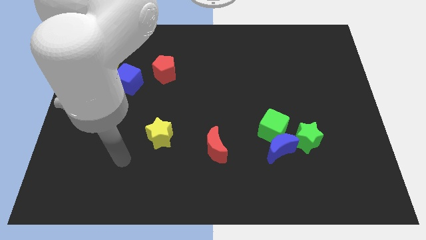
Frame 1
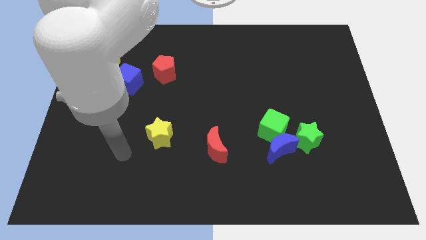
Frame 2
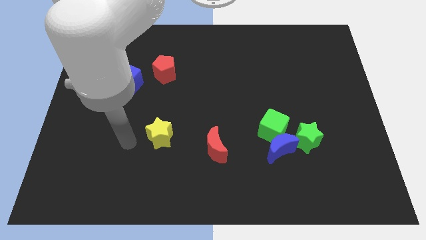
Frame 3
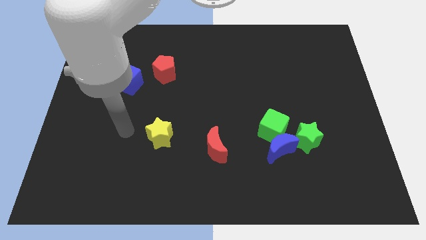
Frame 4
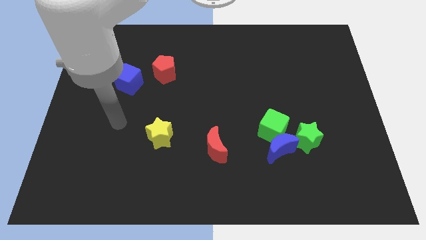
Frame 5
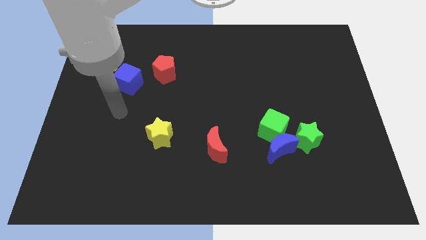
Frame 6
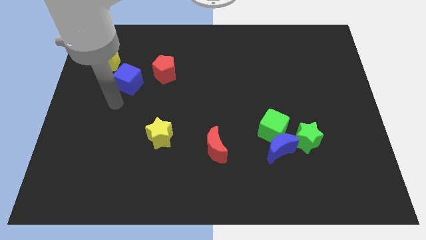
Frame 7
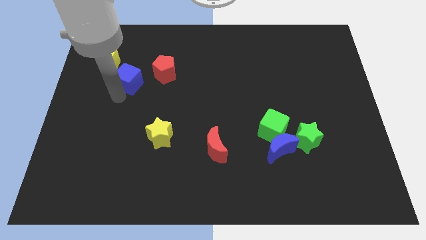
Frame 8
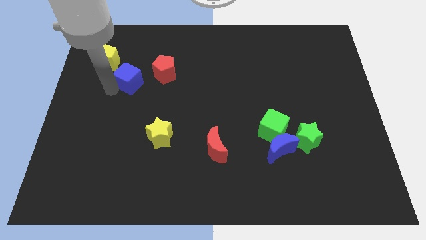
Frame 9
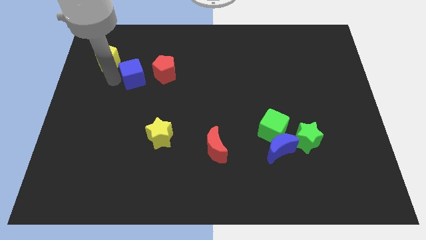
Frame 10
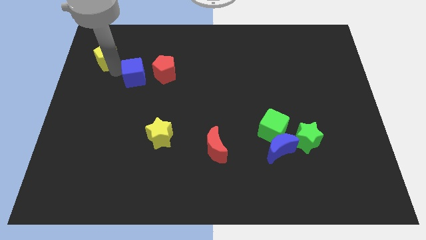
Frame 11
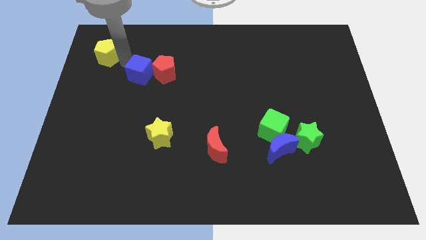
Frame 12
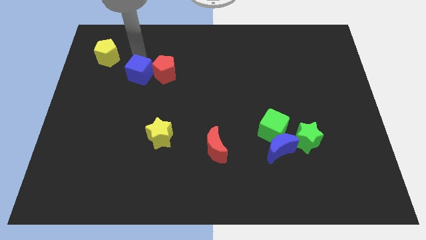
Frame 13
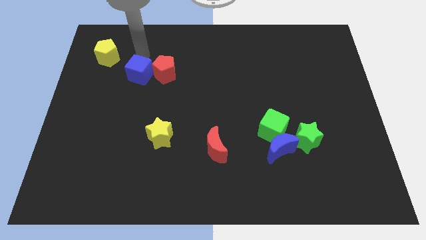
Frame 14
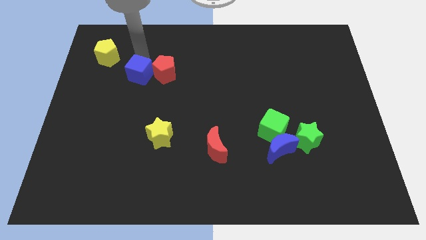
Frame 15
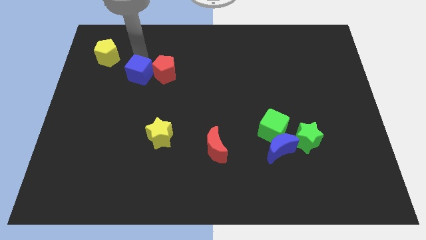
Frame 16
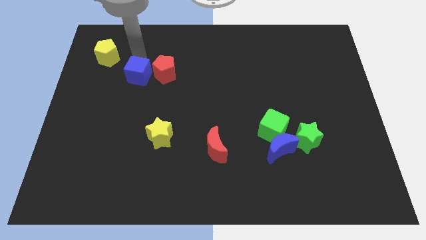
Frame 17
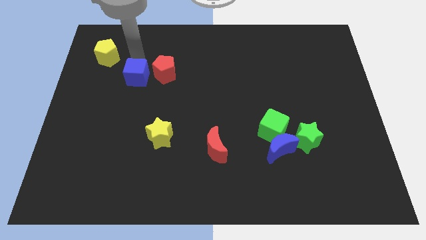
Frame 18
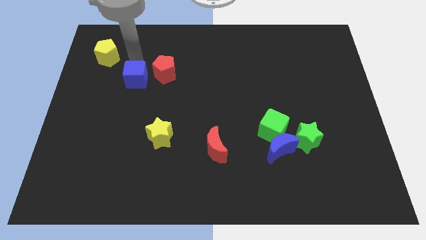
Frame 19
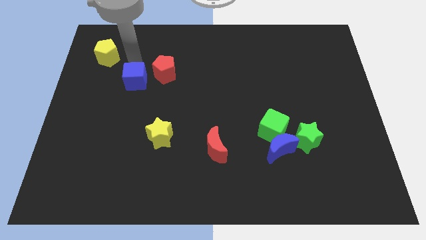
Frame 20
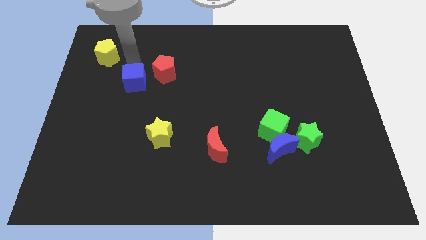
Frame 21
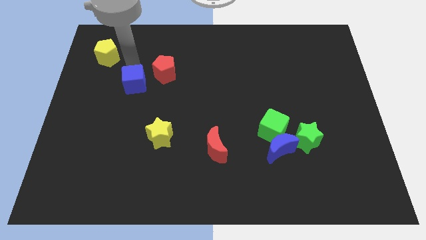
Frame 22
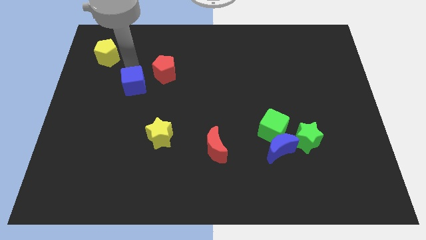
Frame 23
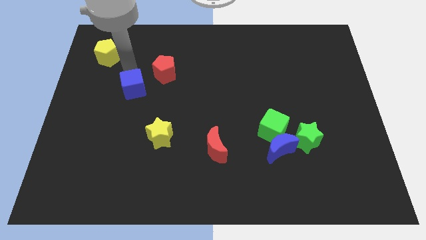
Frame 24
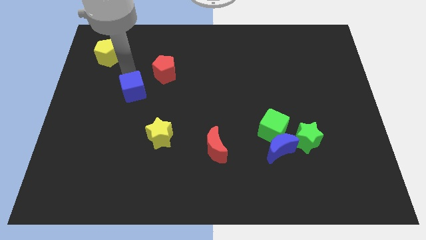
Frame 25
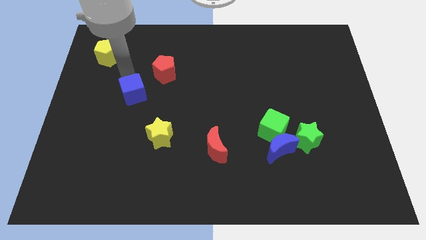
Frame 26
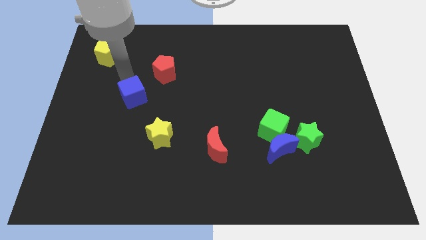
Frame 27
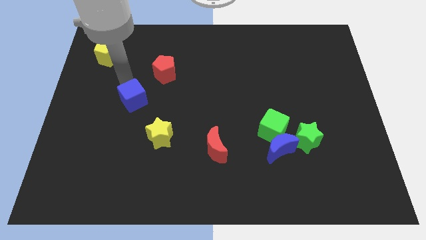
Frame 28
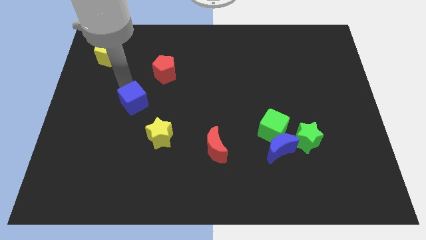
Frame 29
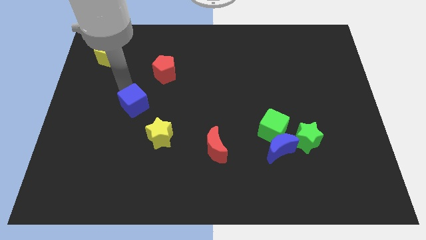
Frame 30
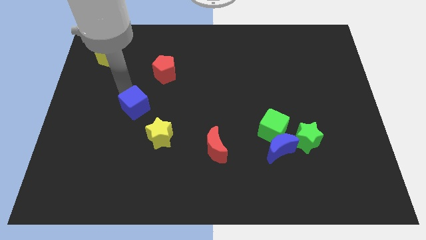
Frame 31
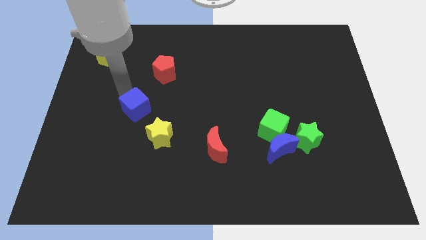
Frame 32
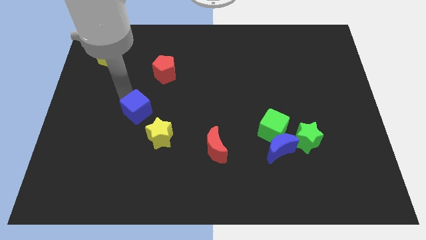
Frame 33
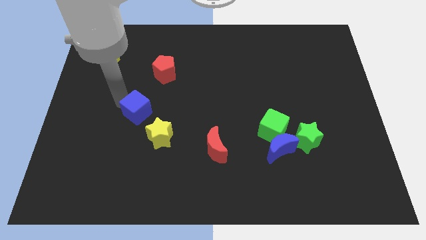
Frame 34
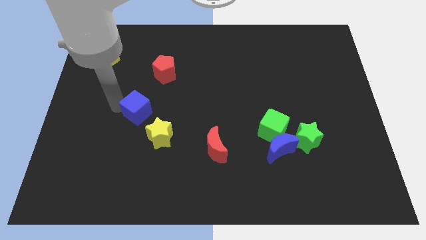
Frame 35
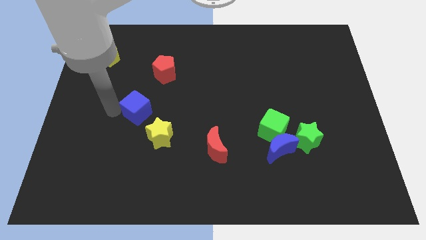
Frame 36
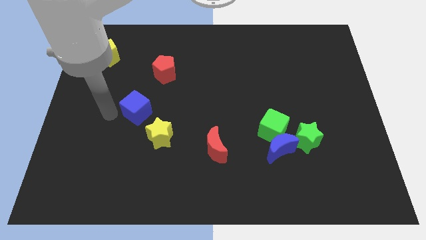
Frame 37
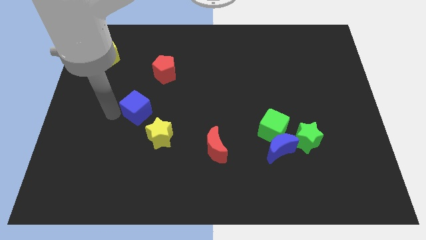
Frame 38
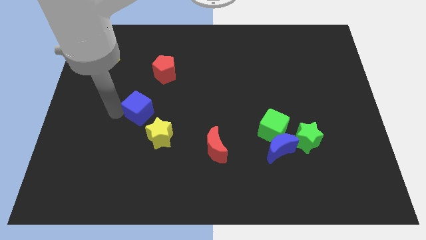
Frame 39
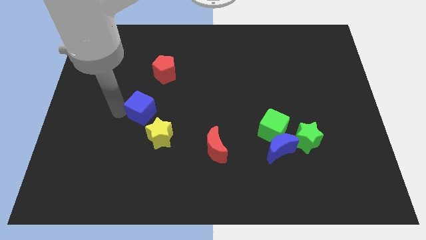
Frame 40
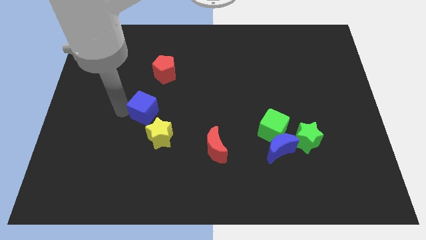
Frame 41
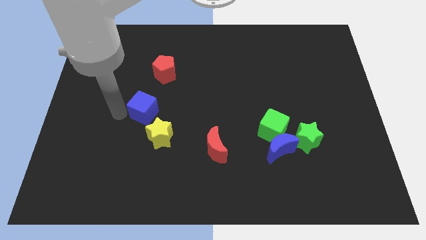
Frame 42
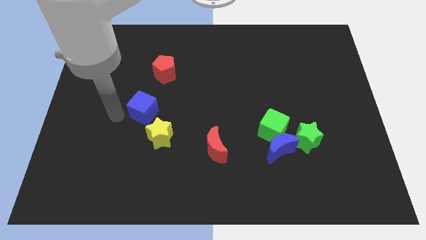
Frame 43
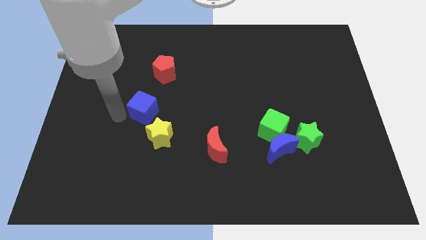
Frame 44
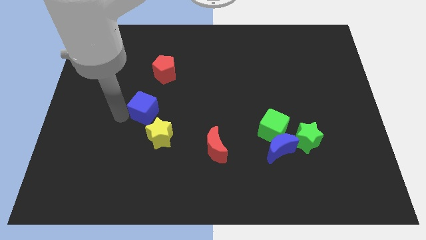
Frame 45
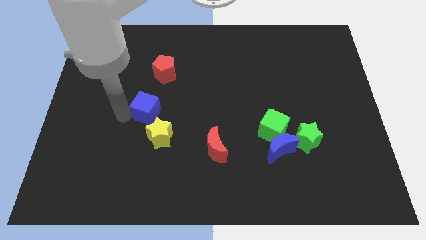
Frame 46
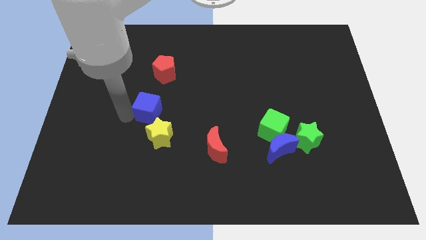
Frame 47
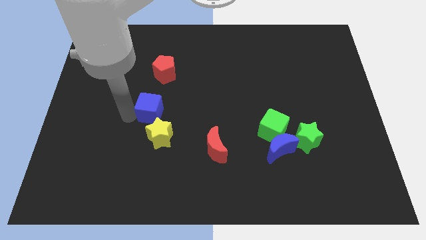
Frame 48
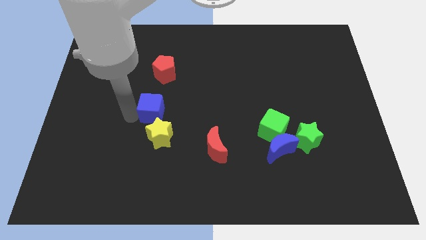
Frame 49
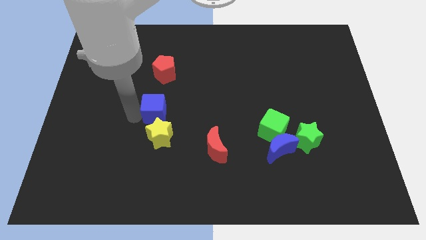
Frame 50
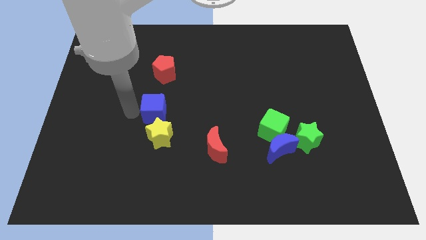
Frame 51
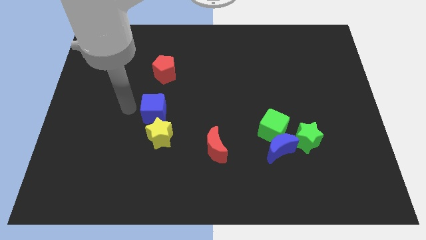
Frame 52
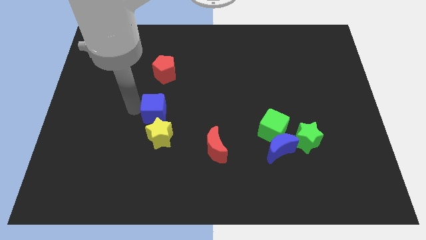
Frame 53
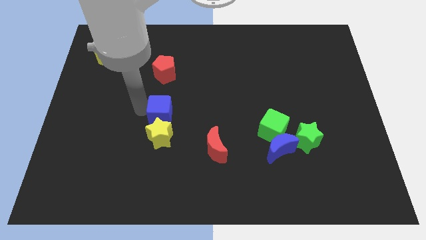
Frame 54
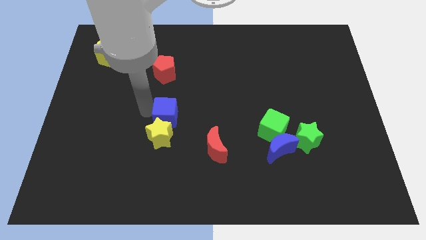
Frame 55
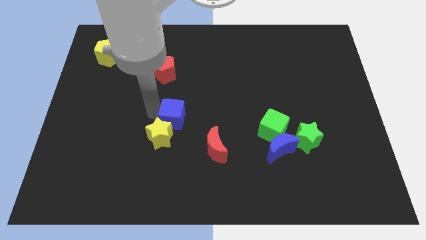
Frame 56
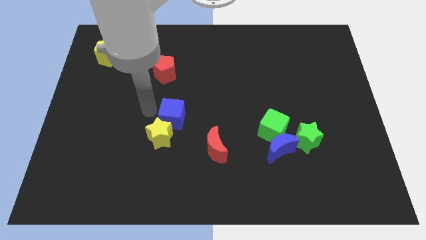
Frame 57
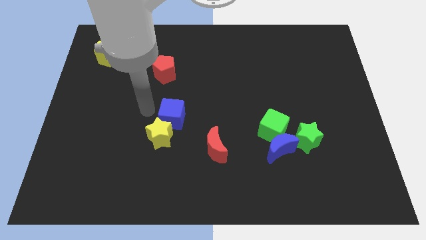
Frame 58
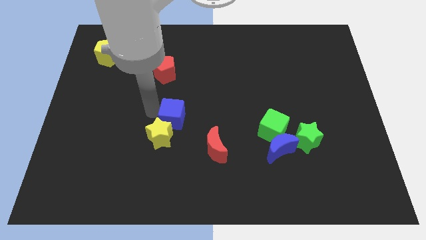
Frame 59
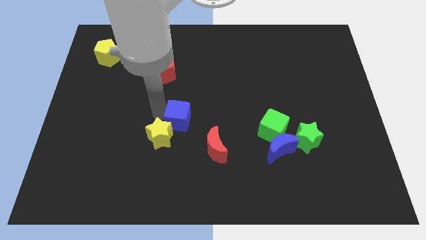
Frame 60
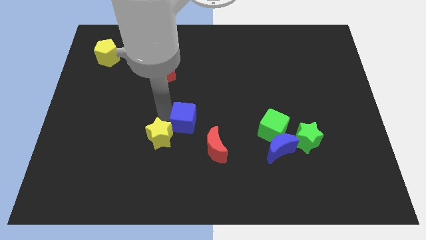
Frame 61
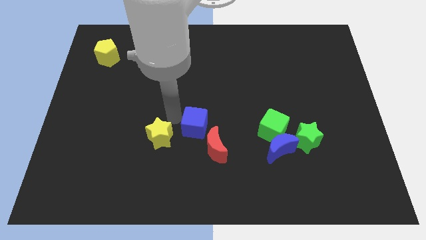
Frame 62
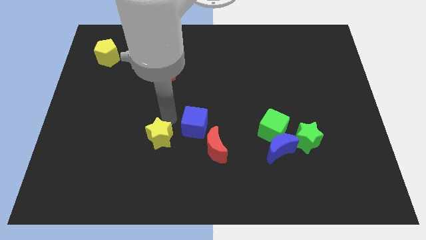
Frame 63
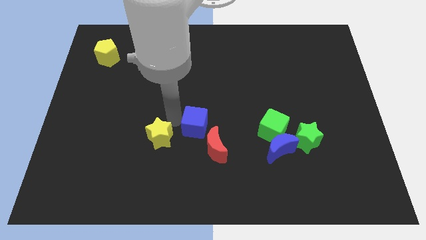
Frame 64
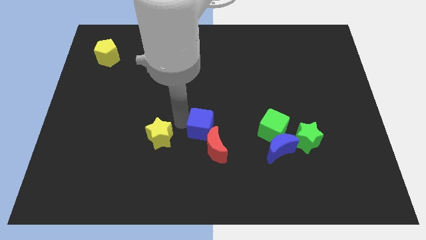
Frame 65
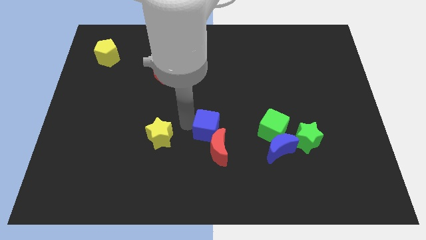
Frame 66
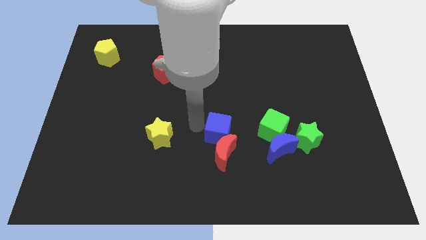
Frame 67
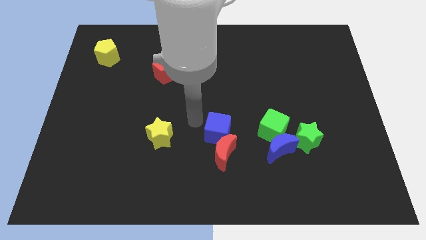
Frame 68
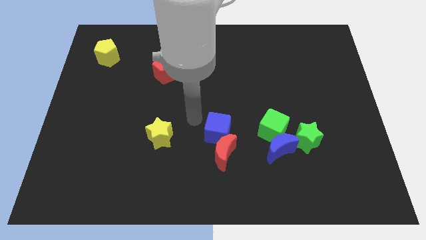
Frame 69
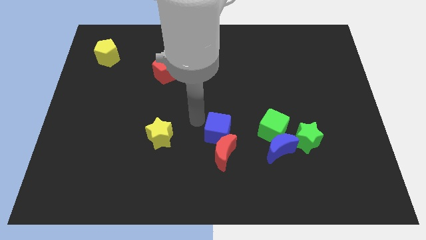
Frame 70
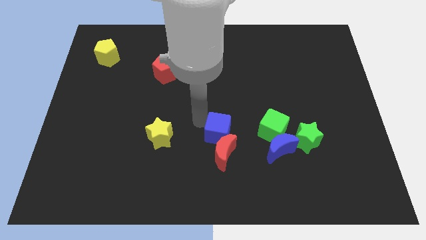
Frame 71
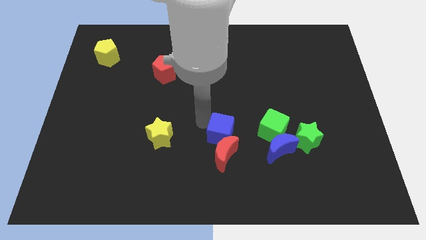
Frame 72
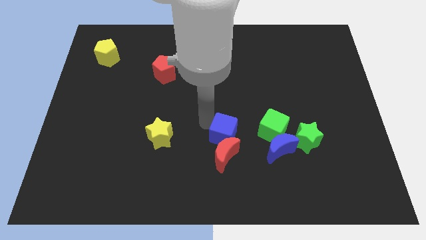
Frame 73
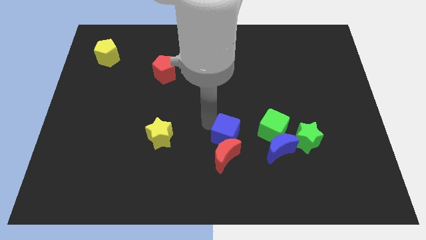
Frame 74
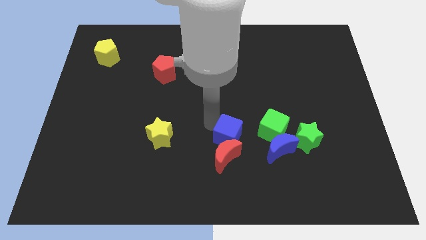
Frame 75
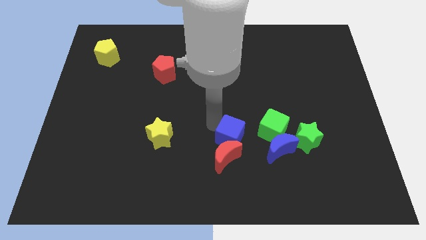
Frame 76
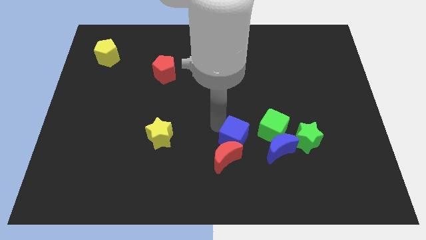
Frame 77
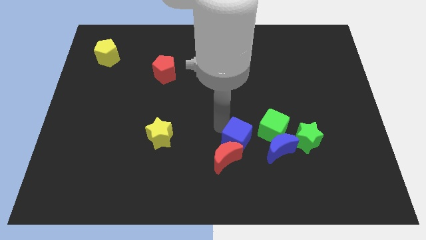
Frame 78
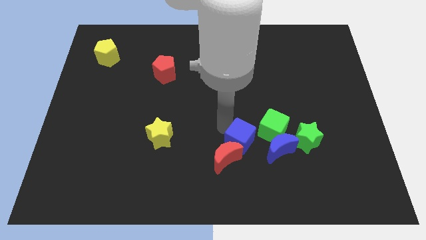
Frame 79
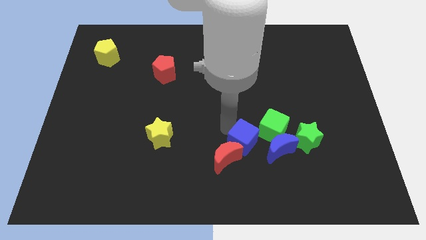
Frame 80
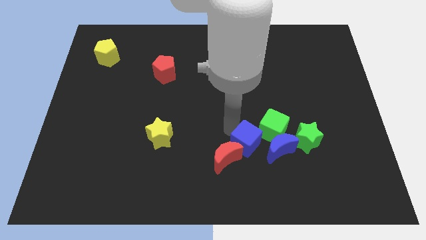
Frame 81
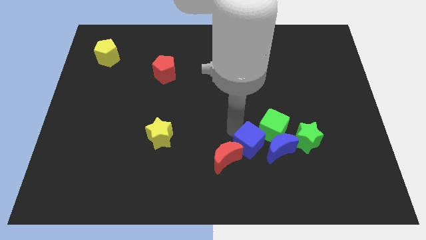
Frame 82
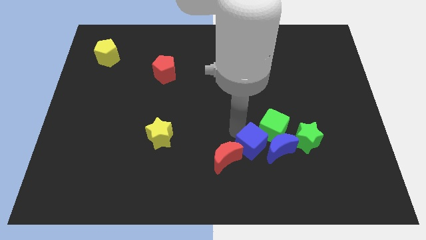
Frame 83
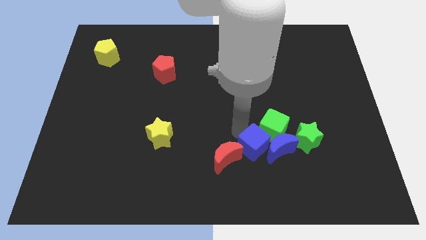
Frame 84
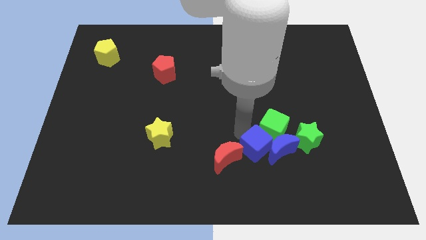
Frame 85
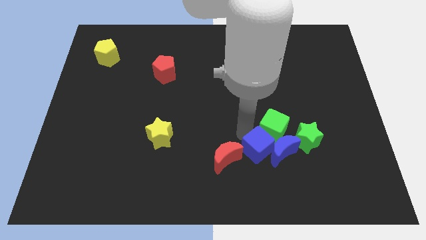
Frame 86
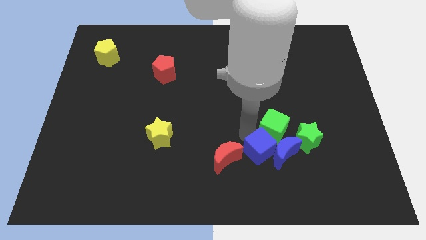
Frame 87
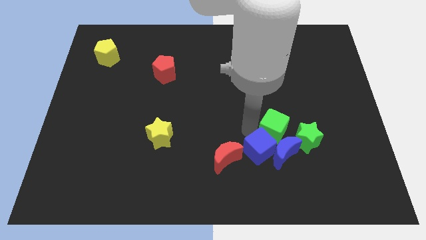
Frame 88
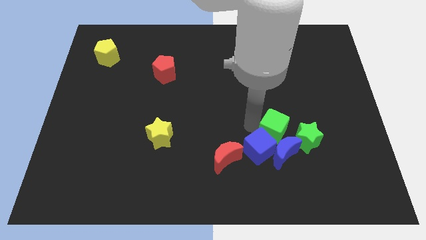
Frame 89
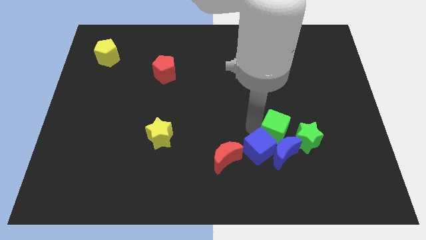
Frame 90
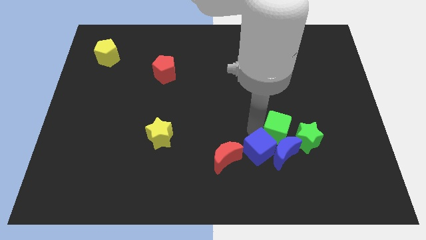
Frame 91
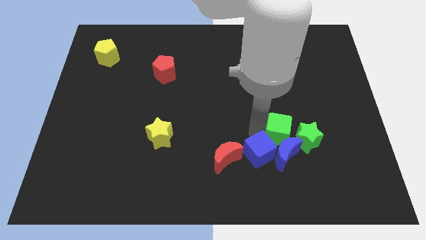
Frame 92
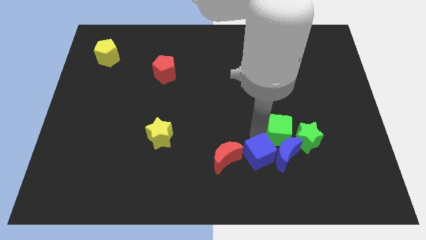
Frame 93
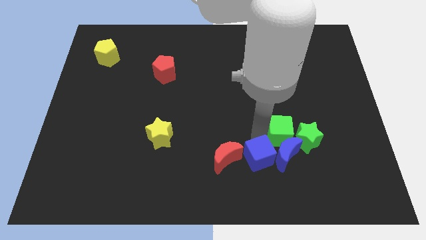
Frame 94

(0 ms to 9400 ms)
put the blue cube to the bottom left of the green star
